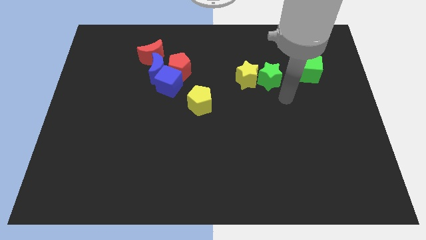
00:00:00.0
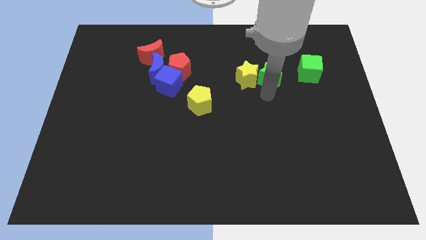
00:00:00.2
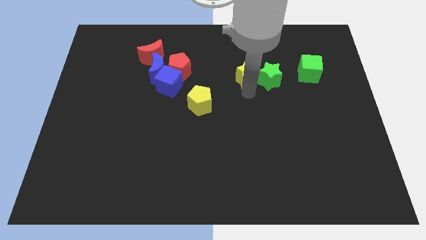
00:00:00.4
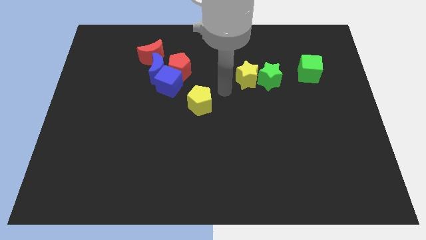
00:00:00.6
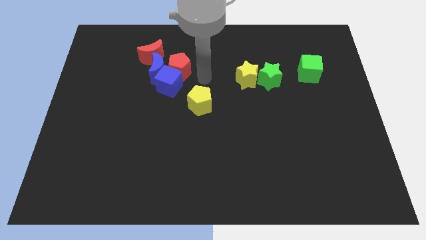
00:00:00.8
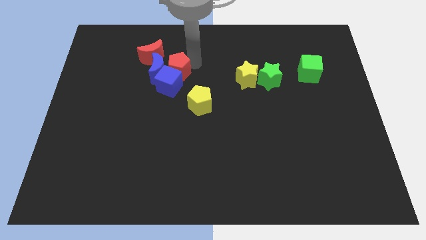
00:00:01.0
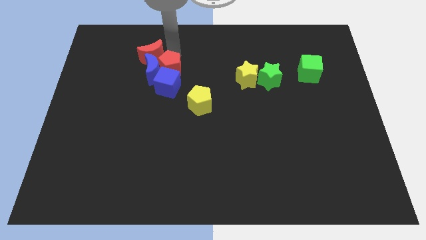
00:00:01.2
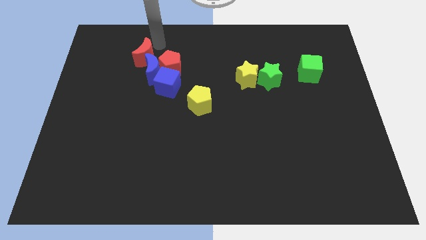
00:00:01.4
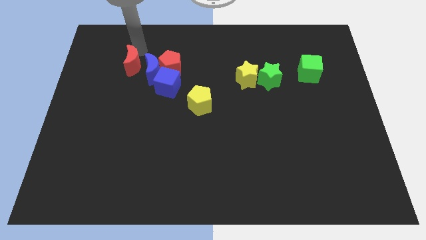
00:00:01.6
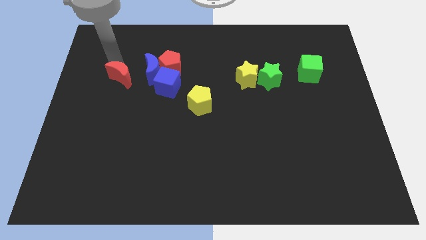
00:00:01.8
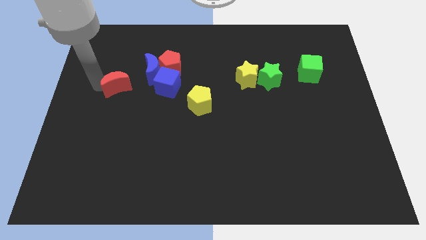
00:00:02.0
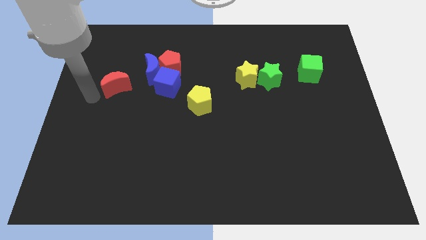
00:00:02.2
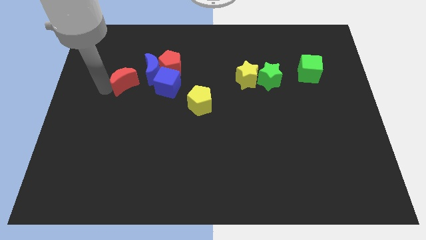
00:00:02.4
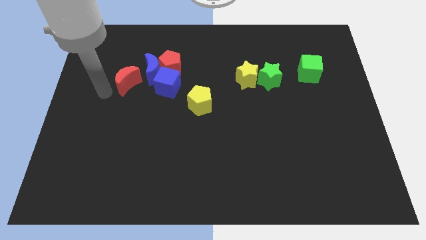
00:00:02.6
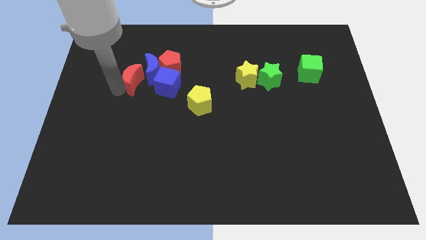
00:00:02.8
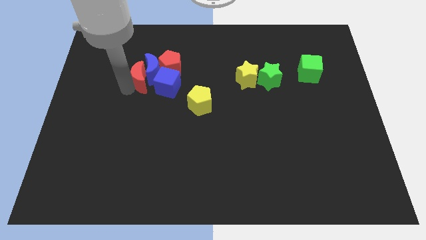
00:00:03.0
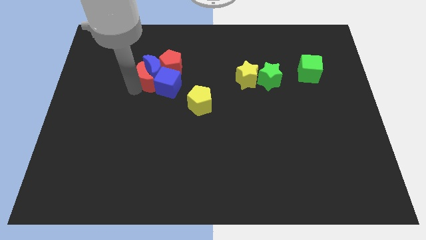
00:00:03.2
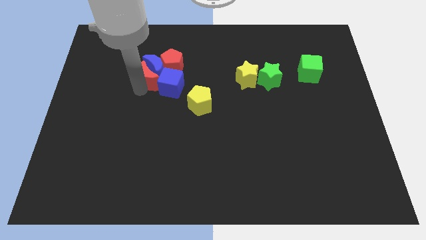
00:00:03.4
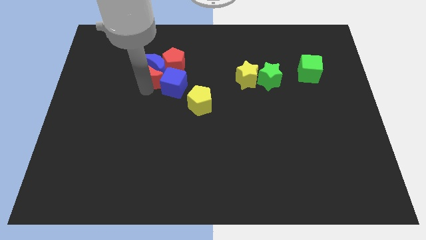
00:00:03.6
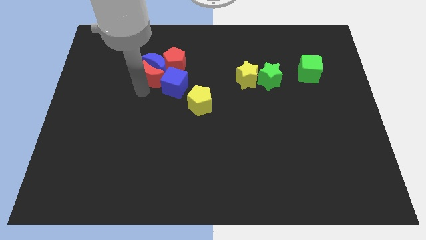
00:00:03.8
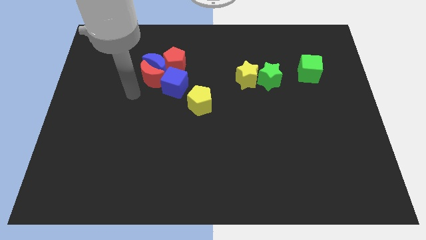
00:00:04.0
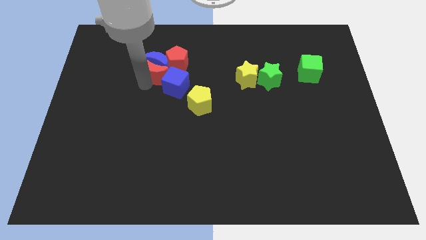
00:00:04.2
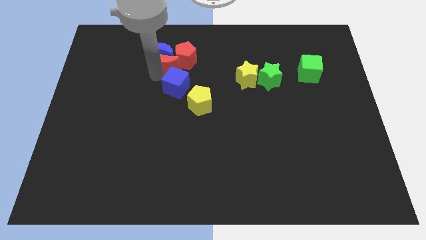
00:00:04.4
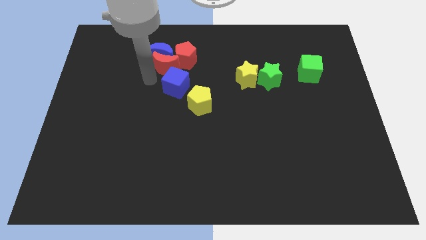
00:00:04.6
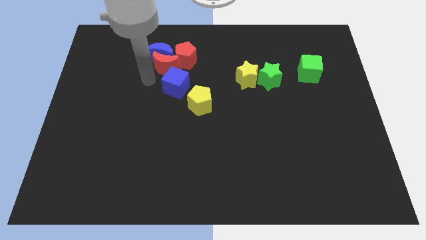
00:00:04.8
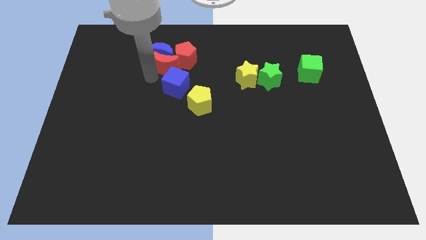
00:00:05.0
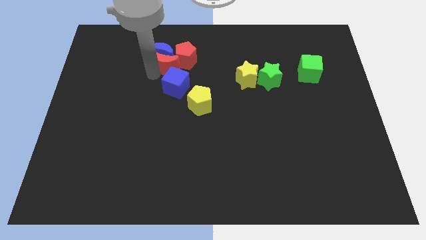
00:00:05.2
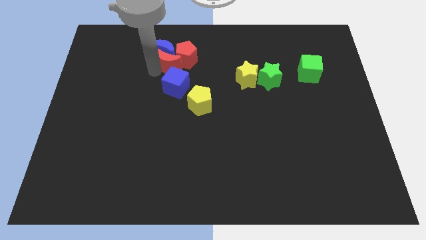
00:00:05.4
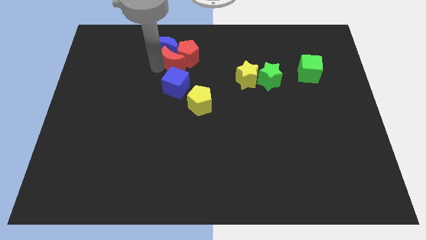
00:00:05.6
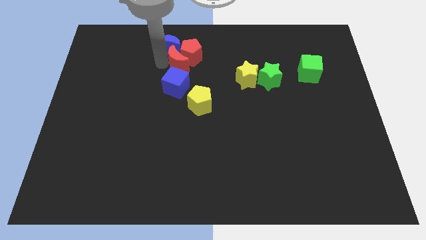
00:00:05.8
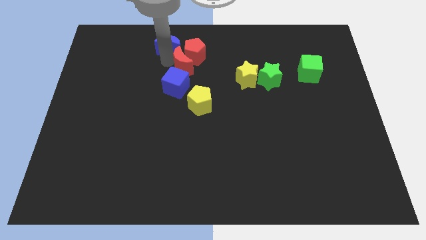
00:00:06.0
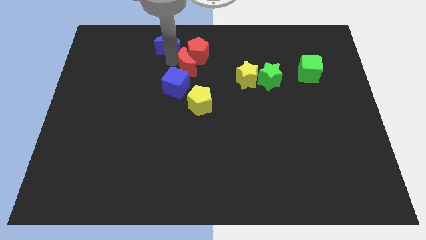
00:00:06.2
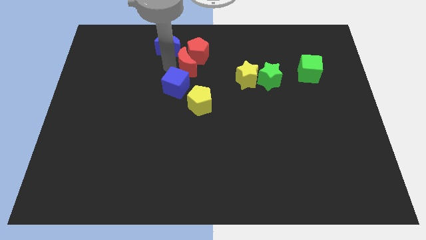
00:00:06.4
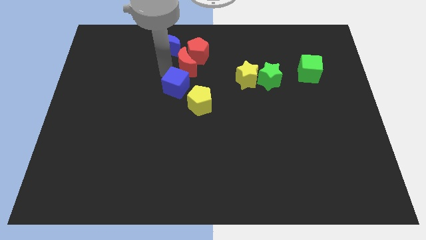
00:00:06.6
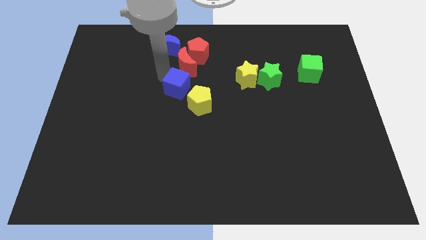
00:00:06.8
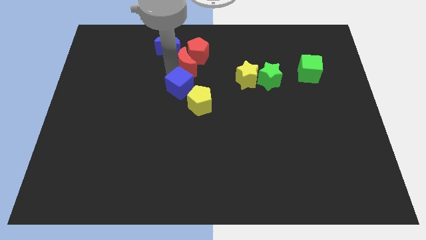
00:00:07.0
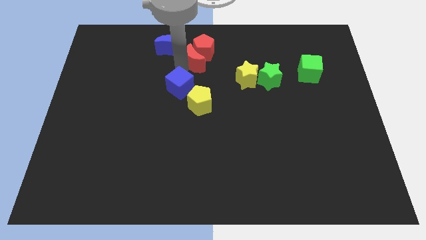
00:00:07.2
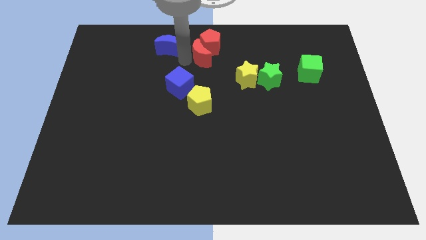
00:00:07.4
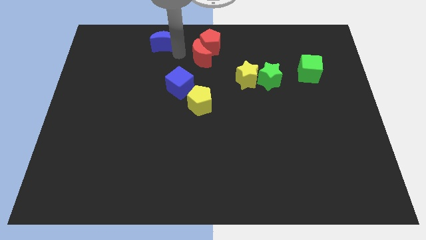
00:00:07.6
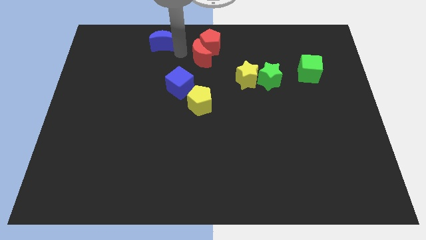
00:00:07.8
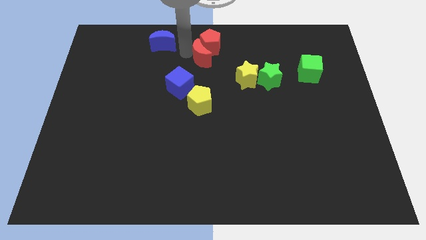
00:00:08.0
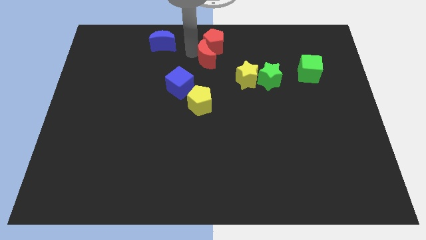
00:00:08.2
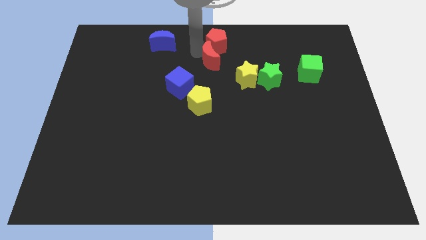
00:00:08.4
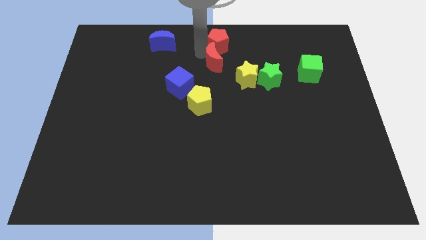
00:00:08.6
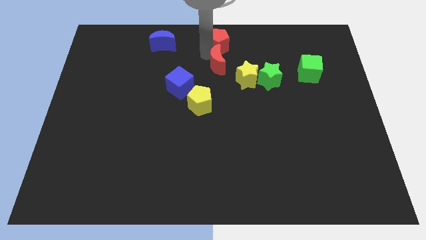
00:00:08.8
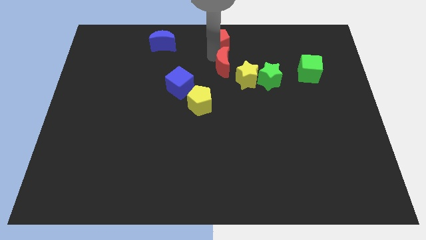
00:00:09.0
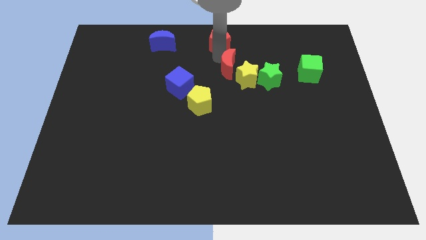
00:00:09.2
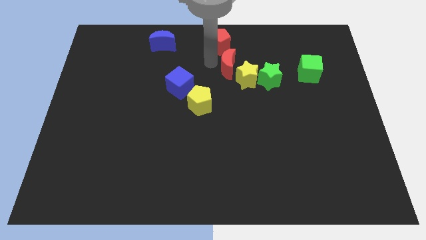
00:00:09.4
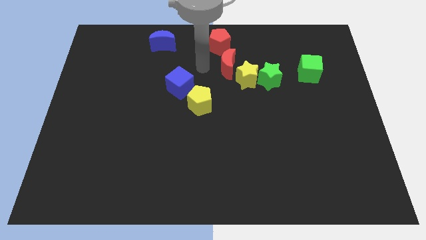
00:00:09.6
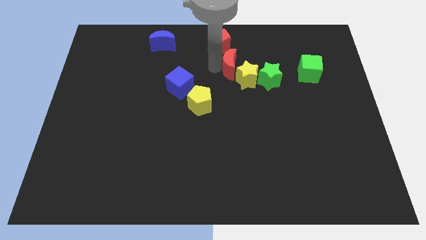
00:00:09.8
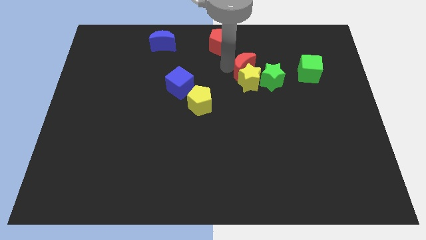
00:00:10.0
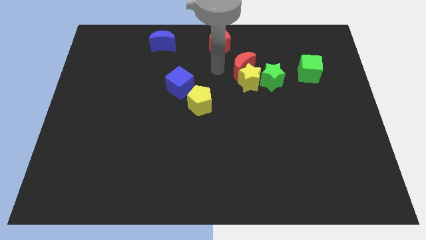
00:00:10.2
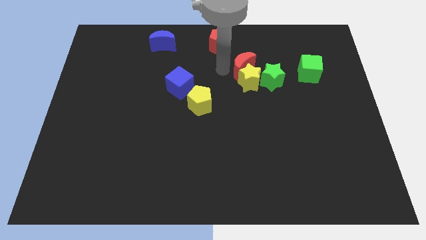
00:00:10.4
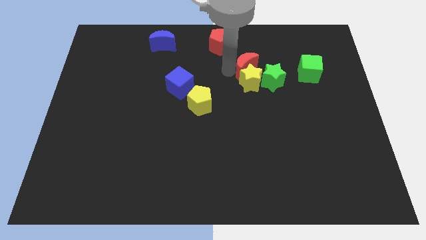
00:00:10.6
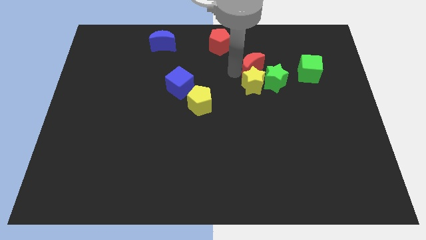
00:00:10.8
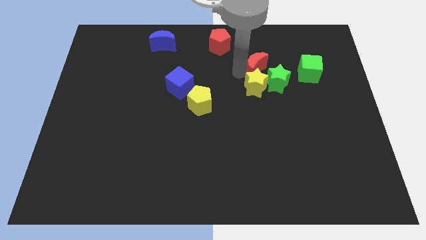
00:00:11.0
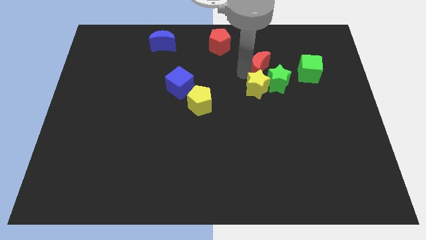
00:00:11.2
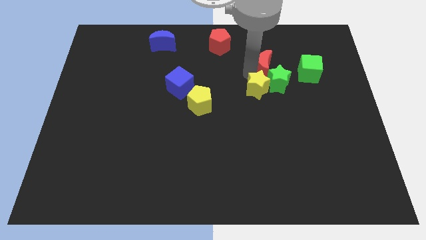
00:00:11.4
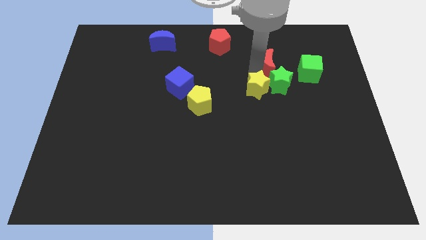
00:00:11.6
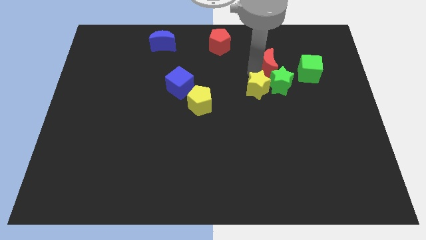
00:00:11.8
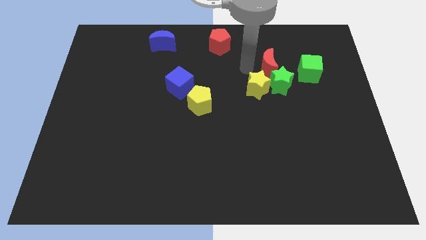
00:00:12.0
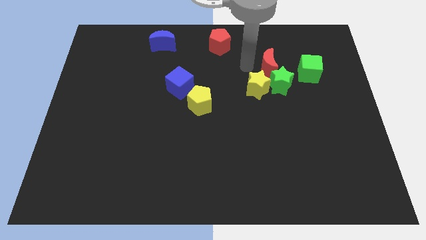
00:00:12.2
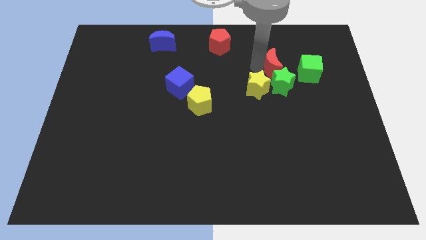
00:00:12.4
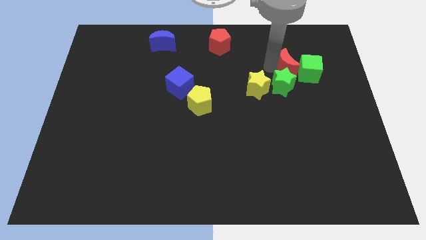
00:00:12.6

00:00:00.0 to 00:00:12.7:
push the red moon to the green cube
